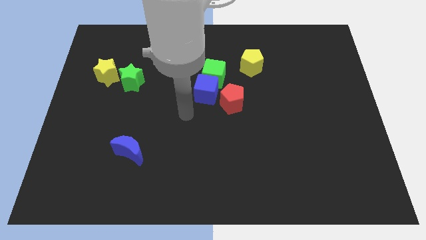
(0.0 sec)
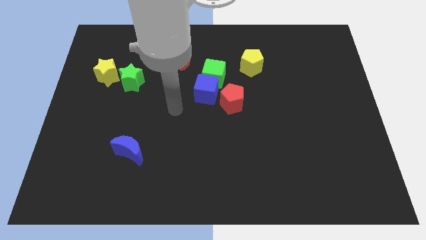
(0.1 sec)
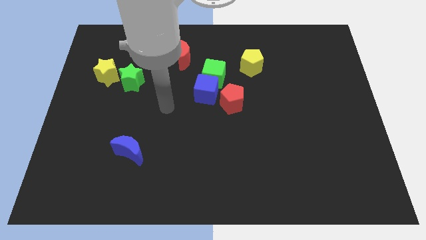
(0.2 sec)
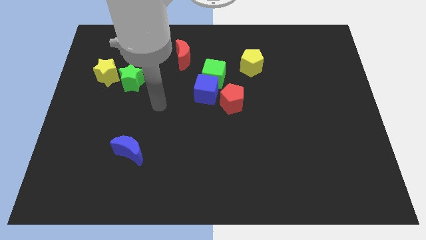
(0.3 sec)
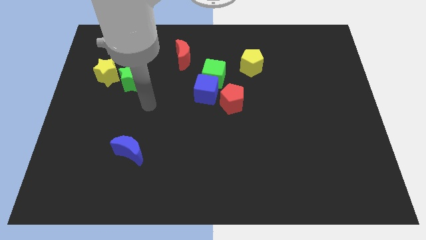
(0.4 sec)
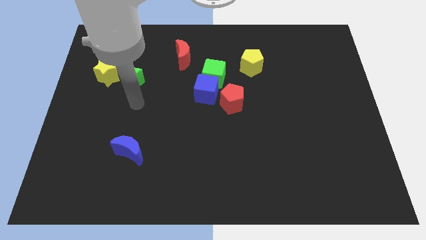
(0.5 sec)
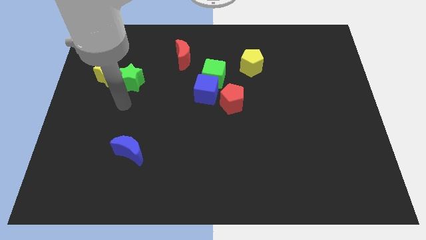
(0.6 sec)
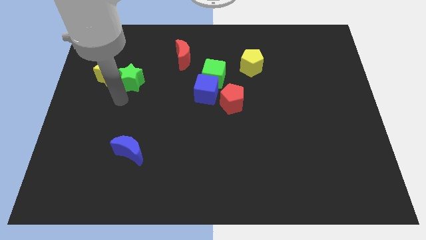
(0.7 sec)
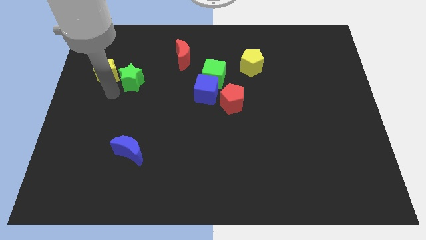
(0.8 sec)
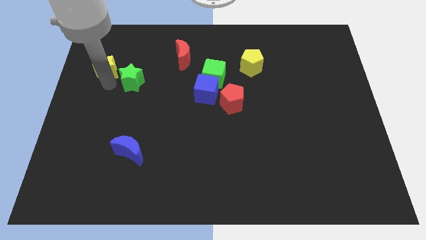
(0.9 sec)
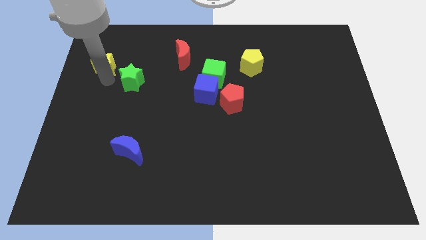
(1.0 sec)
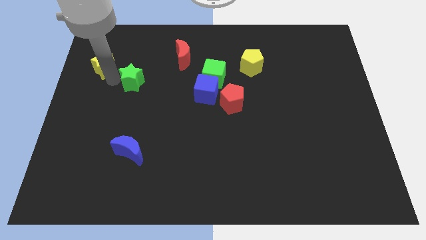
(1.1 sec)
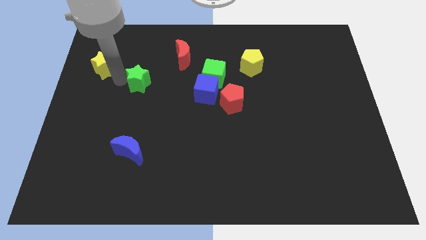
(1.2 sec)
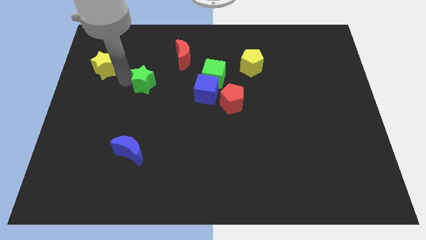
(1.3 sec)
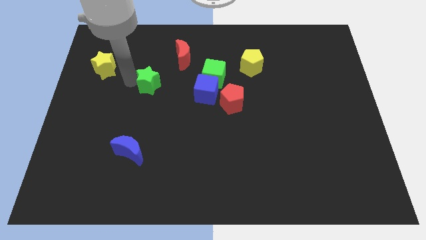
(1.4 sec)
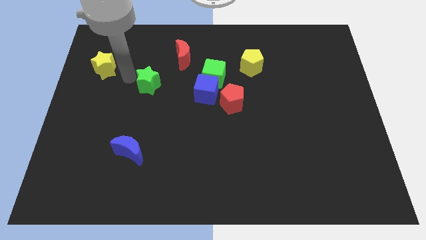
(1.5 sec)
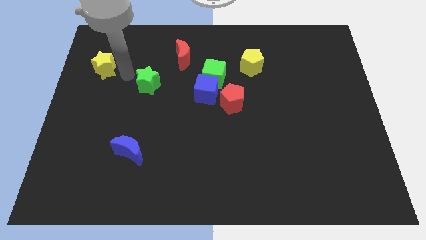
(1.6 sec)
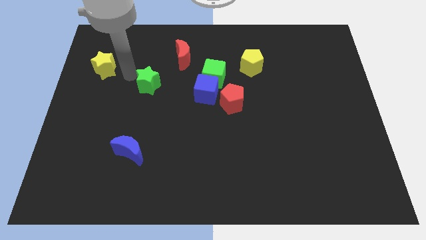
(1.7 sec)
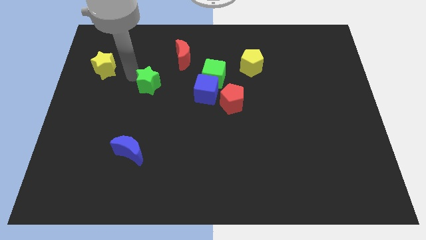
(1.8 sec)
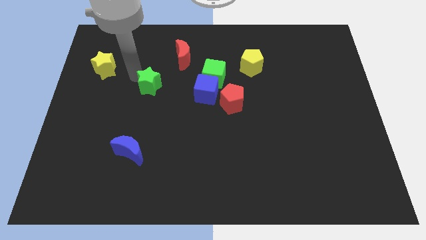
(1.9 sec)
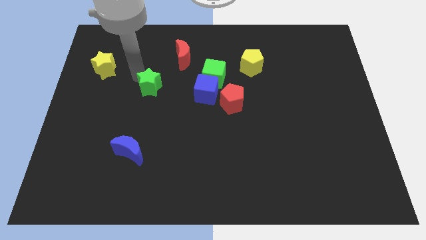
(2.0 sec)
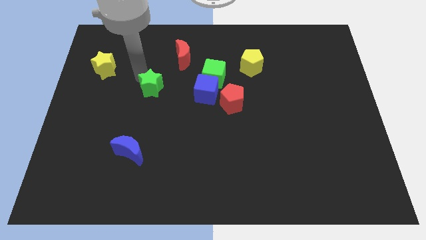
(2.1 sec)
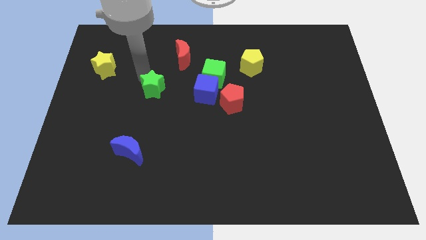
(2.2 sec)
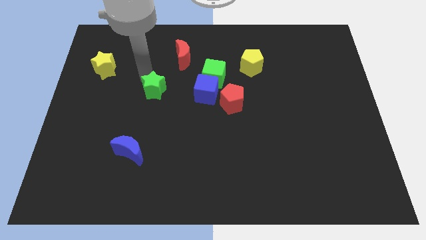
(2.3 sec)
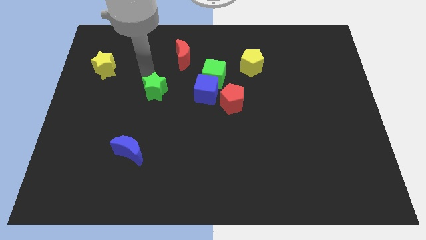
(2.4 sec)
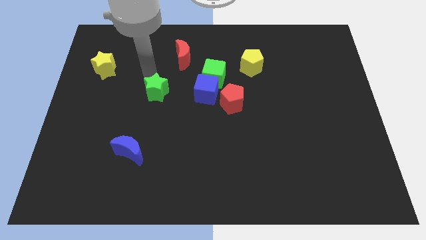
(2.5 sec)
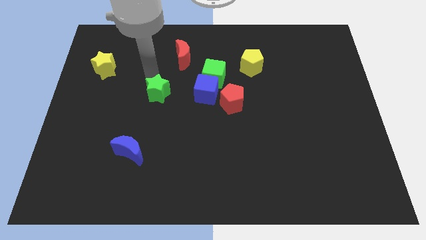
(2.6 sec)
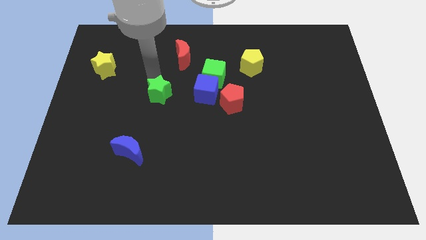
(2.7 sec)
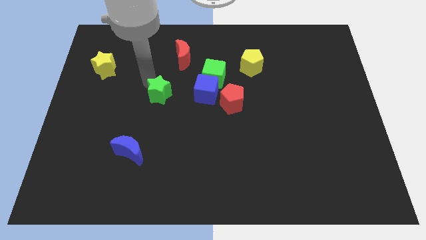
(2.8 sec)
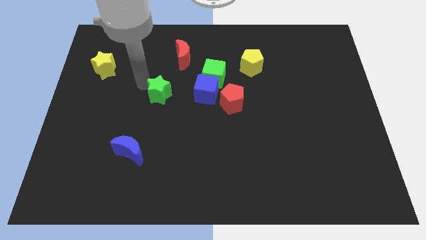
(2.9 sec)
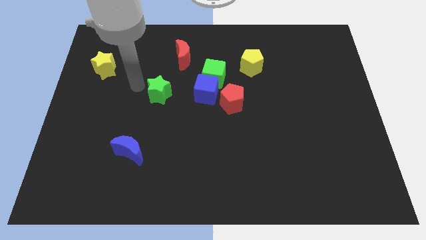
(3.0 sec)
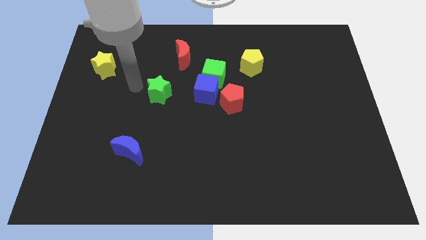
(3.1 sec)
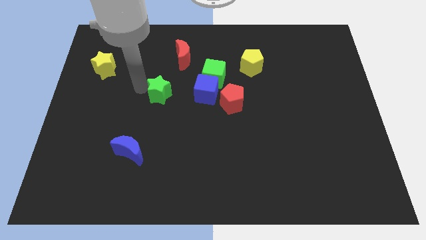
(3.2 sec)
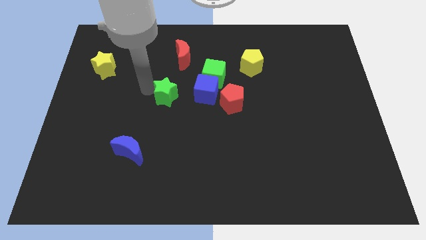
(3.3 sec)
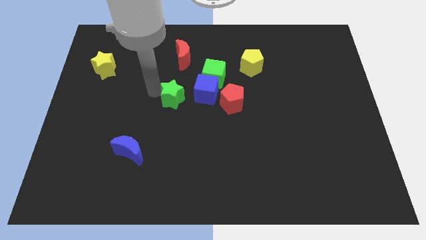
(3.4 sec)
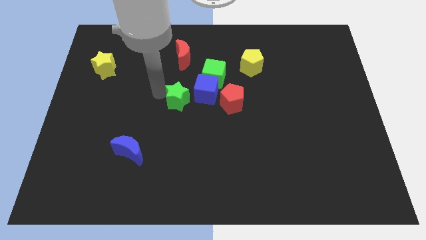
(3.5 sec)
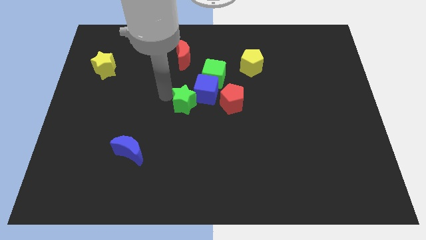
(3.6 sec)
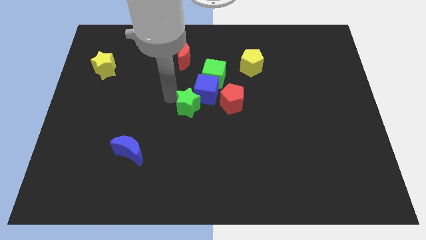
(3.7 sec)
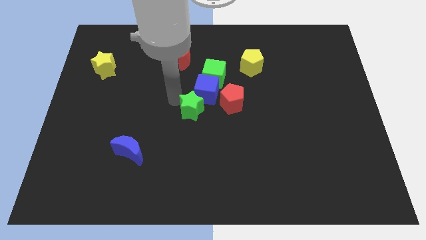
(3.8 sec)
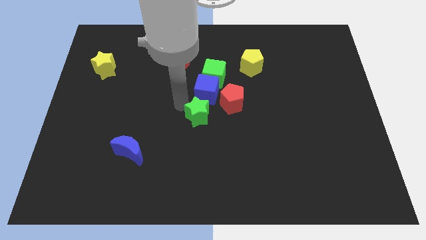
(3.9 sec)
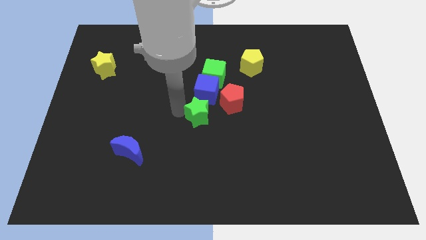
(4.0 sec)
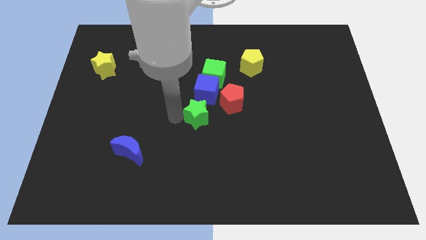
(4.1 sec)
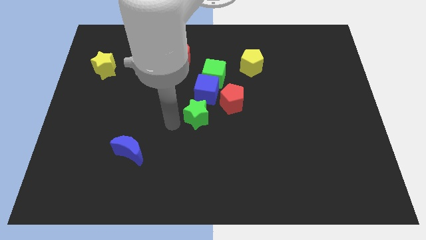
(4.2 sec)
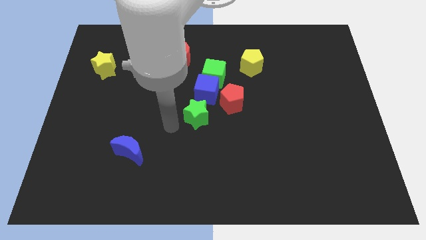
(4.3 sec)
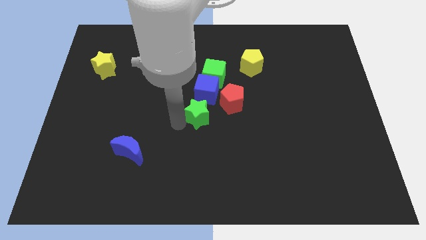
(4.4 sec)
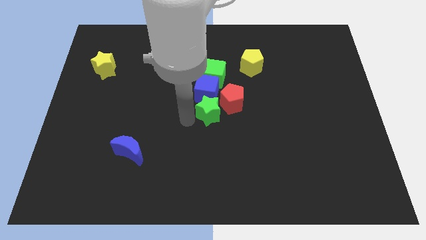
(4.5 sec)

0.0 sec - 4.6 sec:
move the green star close to the red pentagon

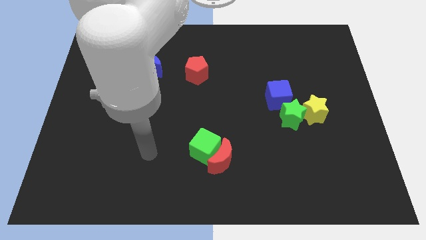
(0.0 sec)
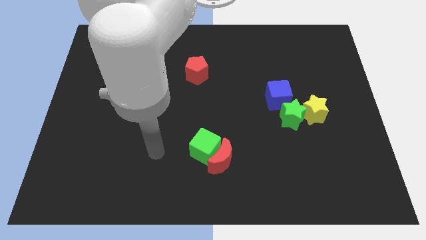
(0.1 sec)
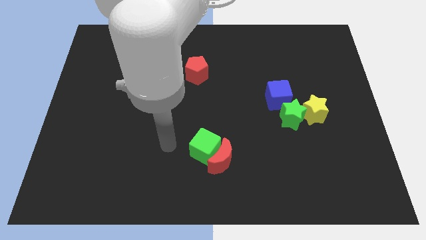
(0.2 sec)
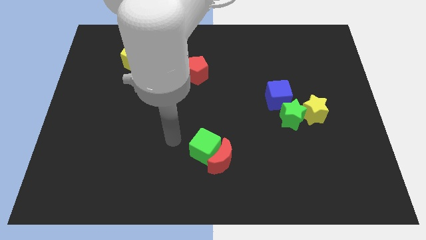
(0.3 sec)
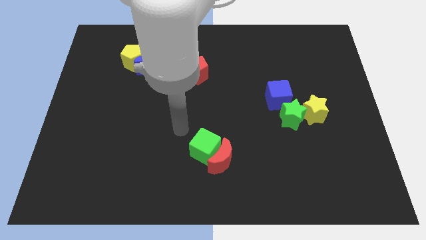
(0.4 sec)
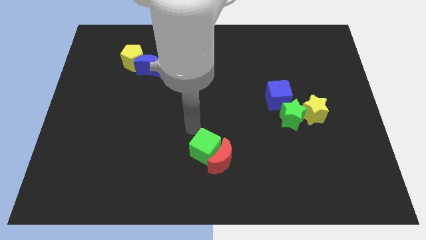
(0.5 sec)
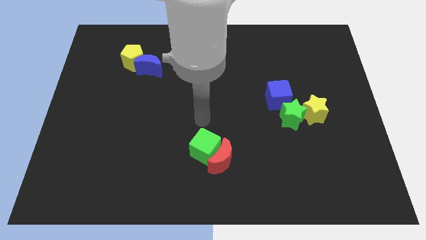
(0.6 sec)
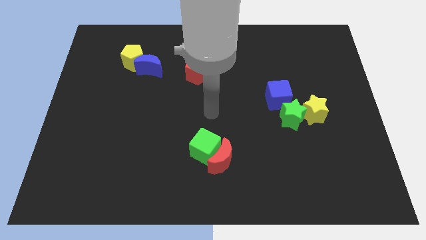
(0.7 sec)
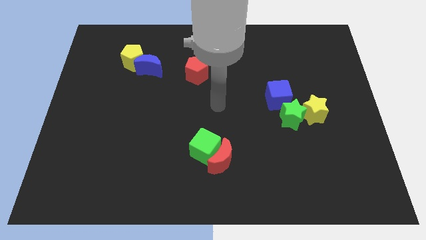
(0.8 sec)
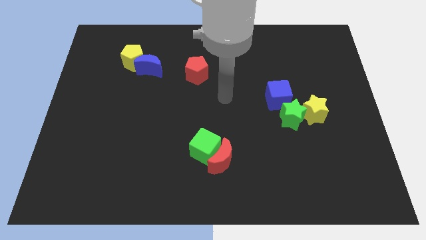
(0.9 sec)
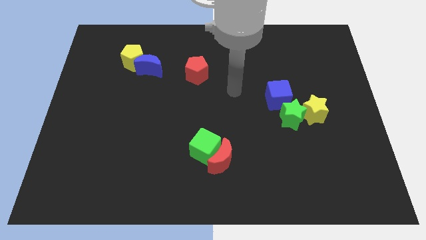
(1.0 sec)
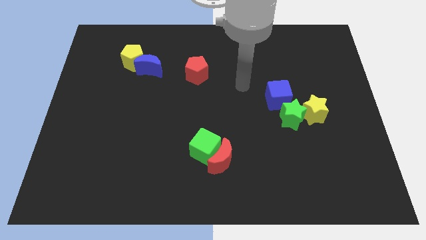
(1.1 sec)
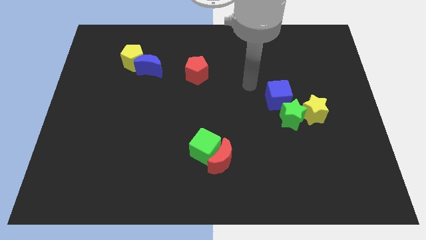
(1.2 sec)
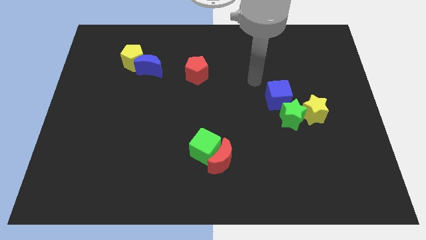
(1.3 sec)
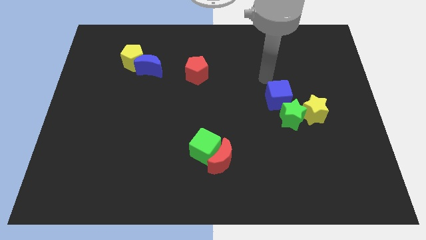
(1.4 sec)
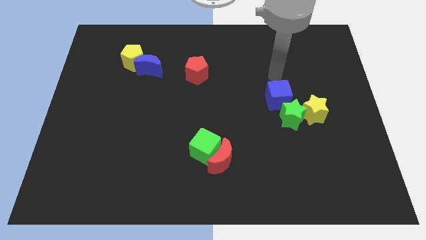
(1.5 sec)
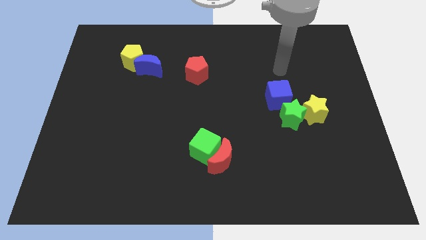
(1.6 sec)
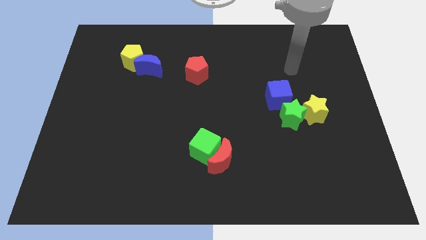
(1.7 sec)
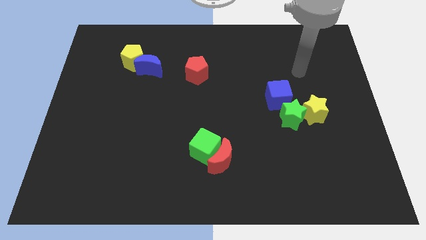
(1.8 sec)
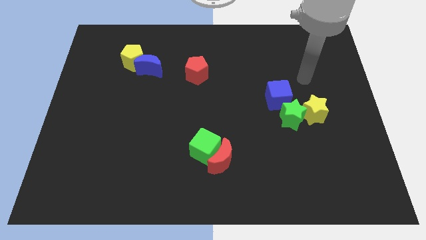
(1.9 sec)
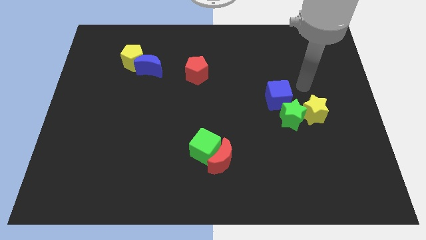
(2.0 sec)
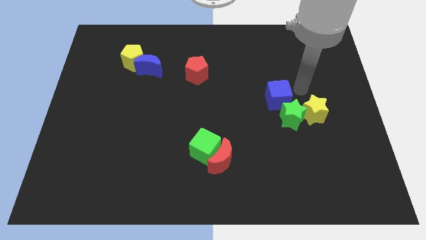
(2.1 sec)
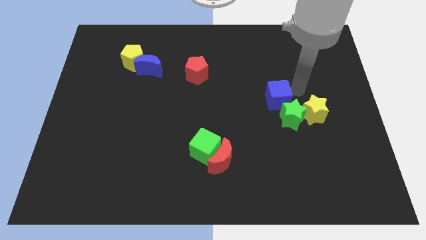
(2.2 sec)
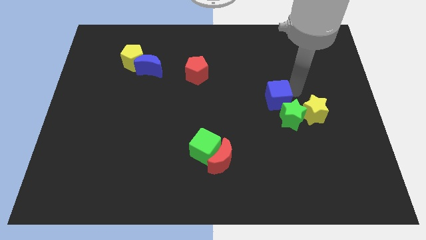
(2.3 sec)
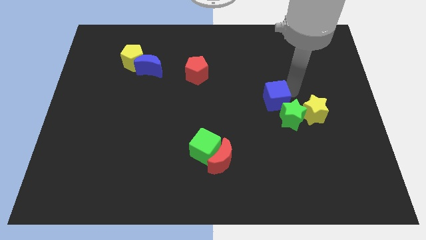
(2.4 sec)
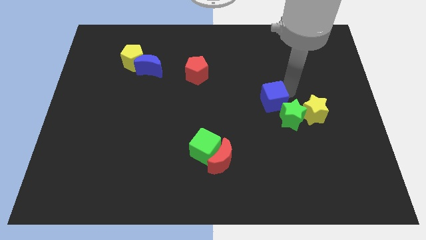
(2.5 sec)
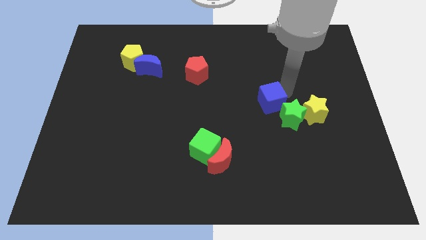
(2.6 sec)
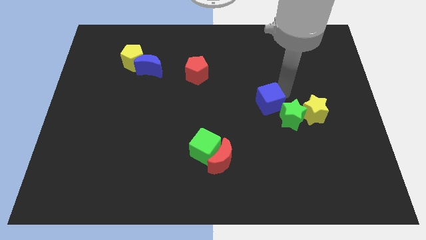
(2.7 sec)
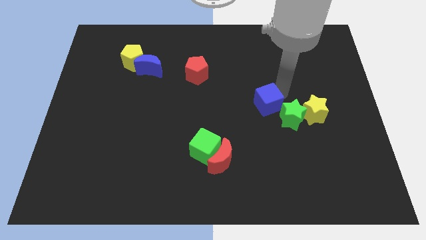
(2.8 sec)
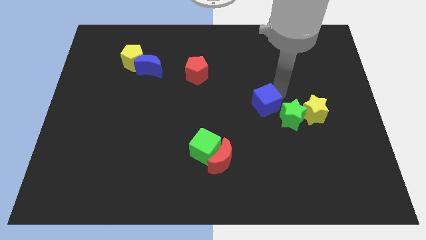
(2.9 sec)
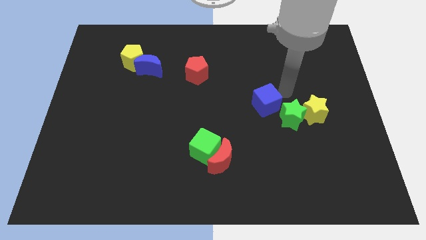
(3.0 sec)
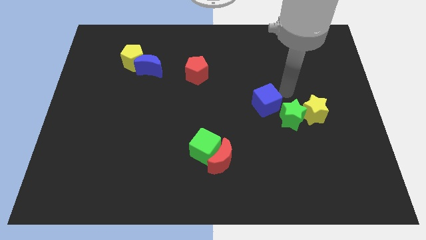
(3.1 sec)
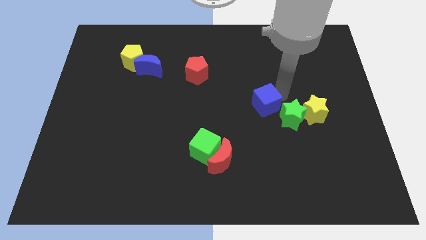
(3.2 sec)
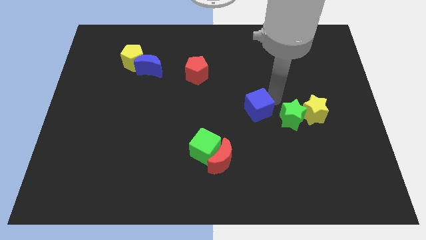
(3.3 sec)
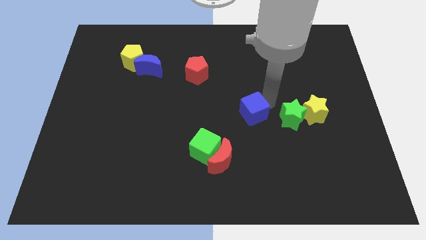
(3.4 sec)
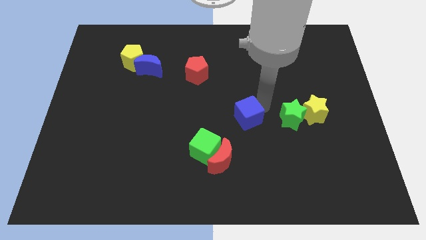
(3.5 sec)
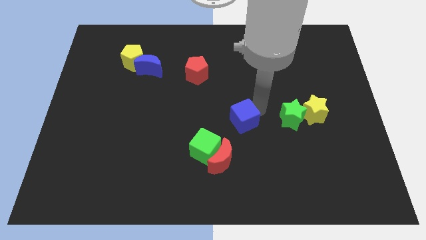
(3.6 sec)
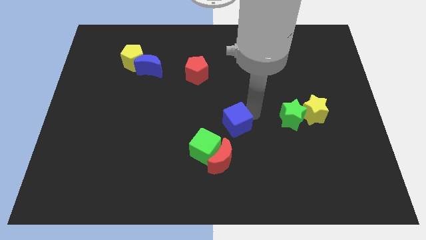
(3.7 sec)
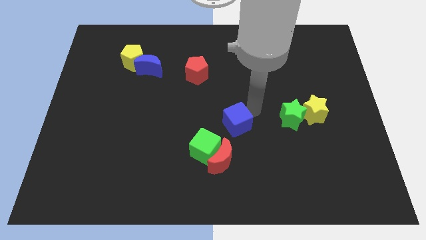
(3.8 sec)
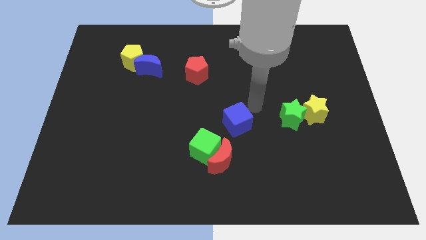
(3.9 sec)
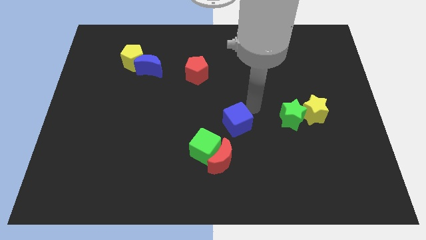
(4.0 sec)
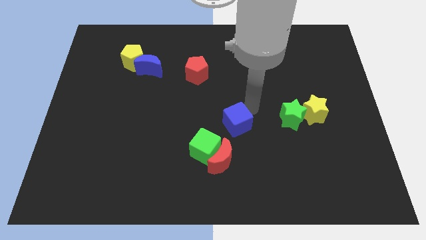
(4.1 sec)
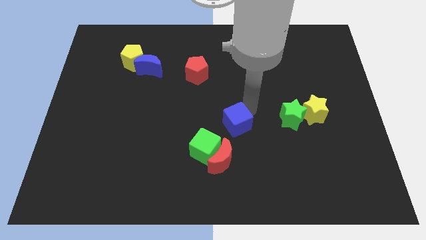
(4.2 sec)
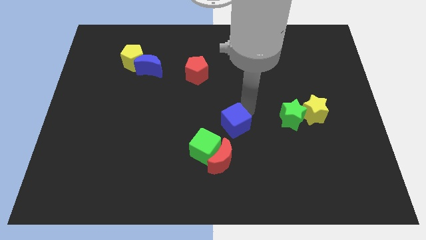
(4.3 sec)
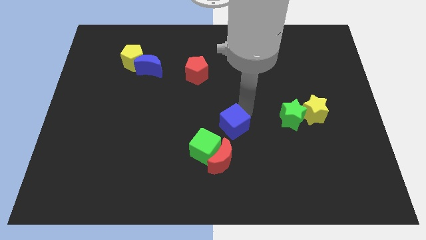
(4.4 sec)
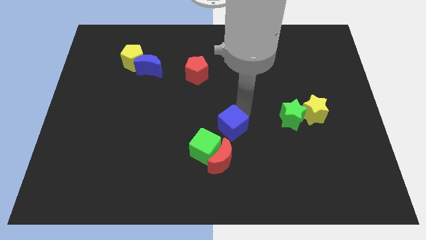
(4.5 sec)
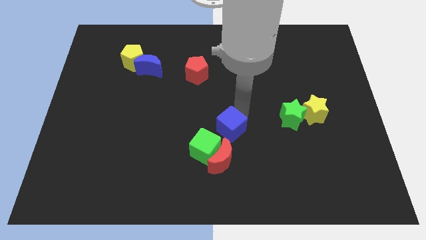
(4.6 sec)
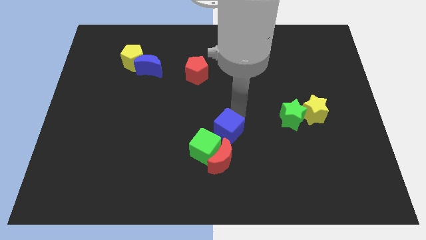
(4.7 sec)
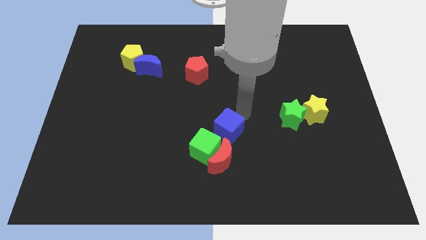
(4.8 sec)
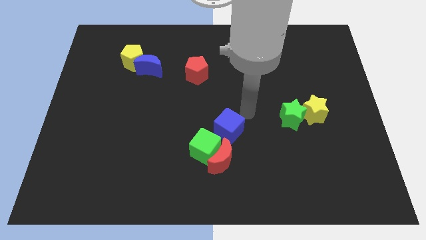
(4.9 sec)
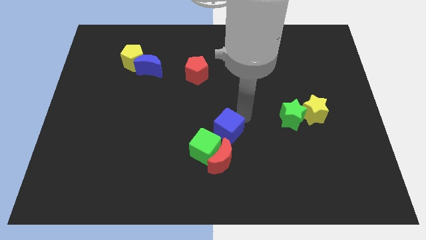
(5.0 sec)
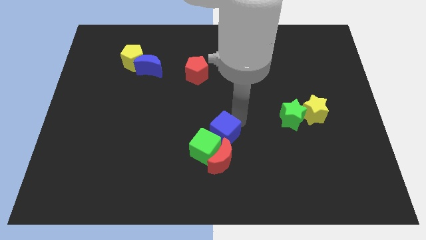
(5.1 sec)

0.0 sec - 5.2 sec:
push the blue cube towards the green cube
